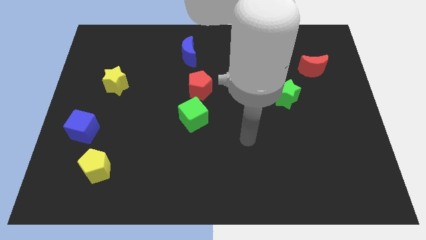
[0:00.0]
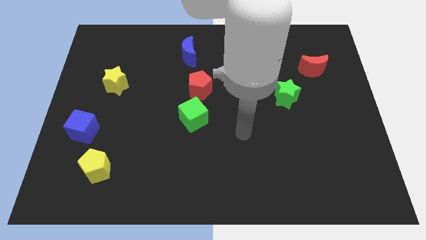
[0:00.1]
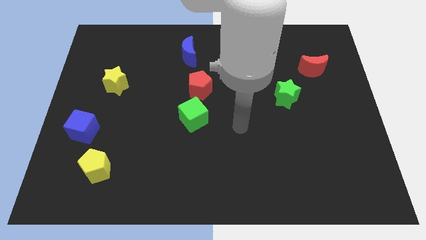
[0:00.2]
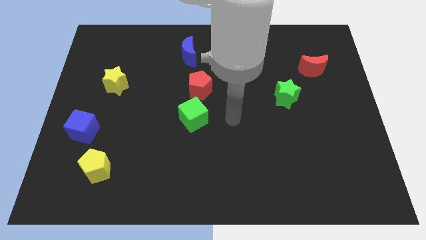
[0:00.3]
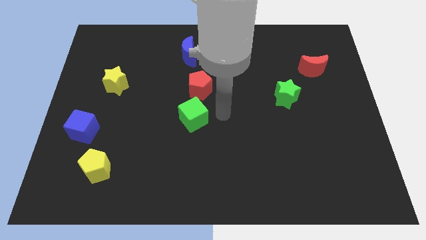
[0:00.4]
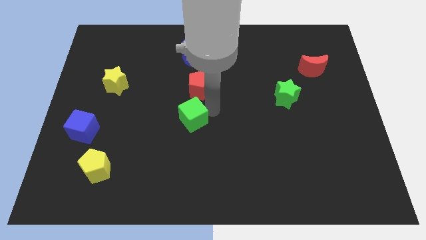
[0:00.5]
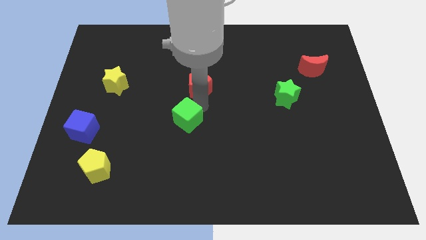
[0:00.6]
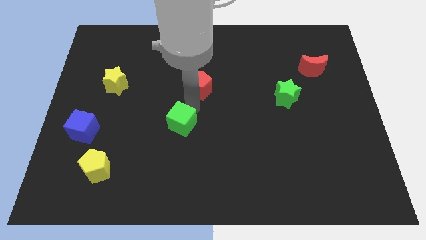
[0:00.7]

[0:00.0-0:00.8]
move the red pentagon away from the green cube

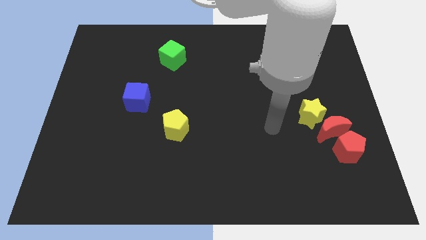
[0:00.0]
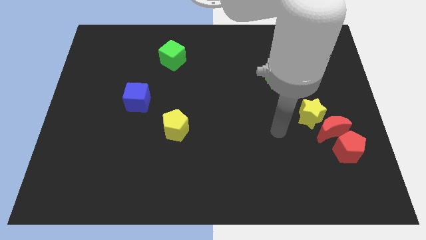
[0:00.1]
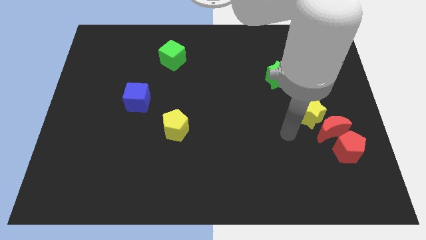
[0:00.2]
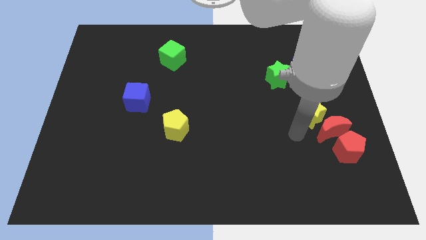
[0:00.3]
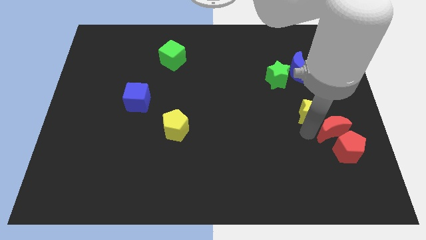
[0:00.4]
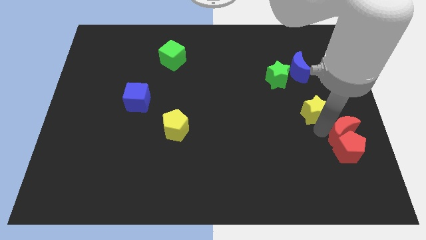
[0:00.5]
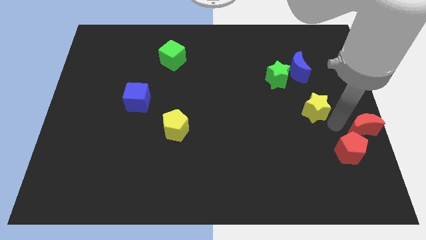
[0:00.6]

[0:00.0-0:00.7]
pull the yellow star apart from the red moon

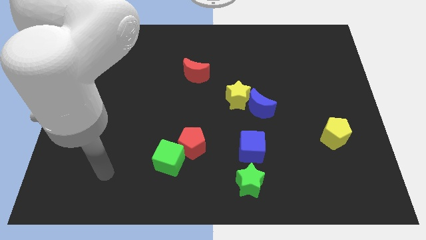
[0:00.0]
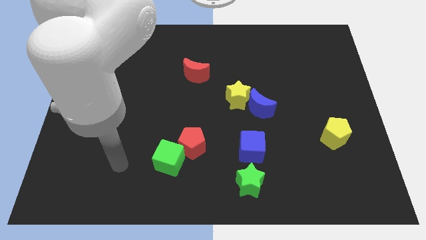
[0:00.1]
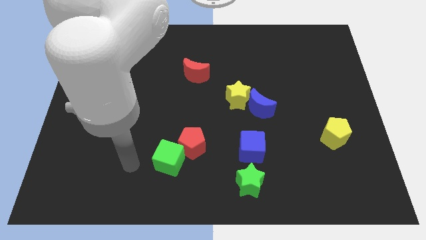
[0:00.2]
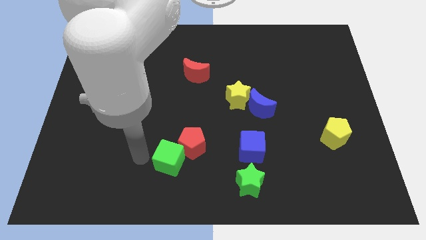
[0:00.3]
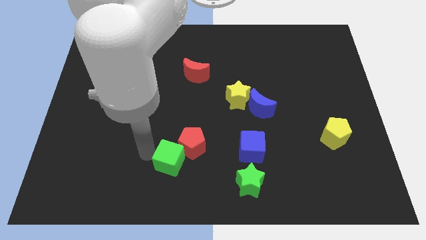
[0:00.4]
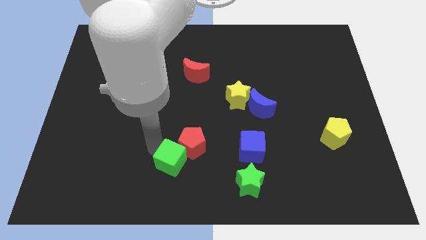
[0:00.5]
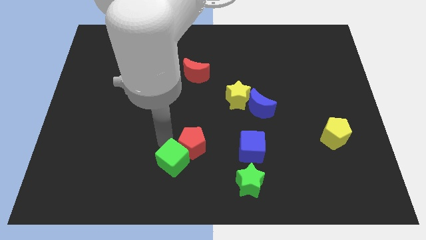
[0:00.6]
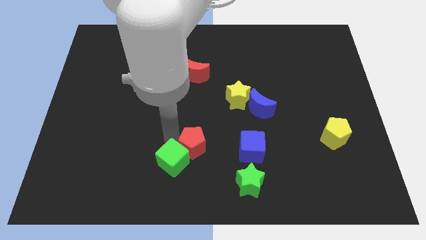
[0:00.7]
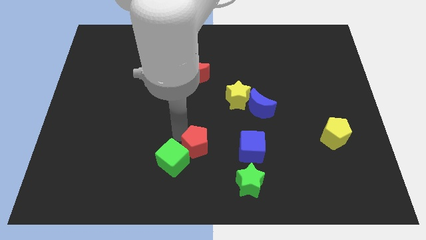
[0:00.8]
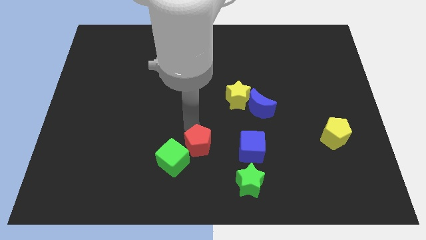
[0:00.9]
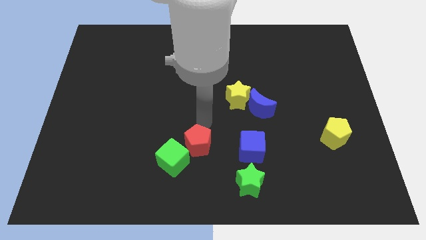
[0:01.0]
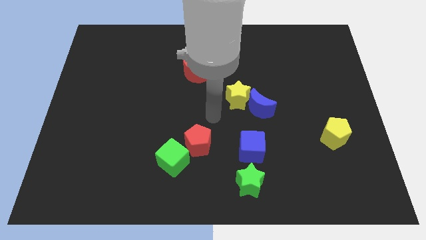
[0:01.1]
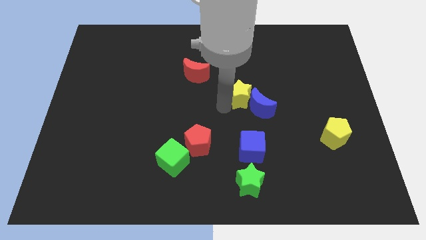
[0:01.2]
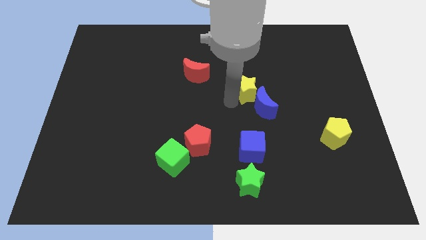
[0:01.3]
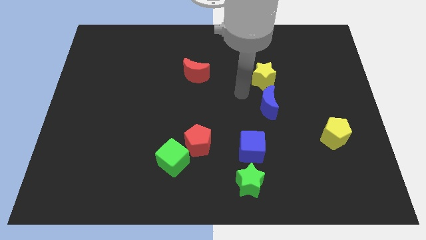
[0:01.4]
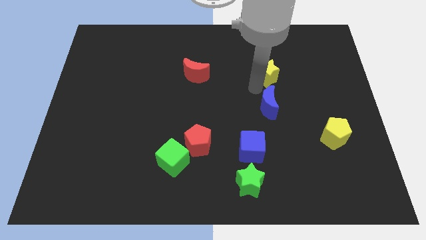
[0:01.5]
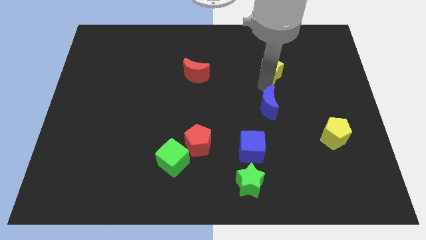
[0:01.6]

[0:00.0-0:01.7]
pull the blue moon apart from the yellow star

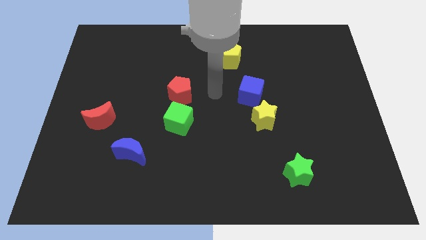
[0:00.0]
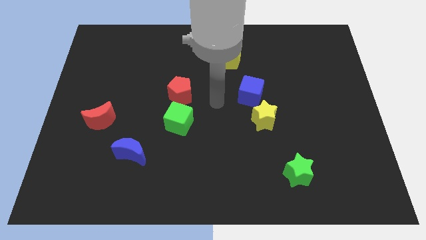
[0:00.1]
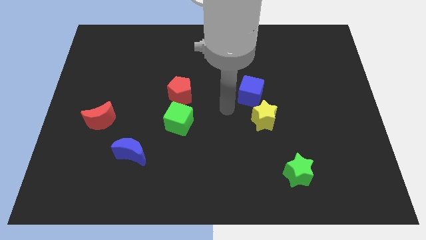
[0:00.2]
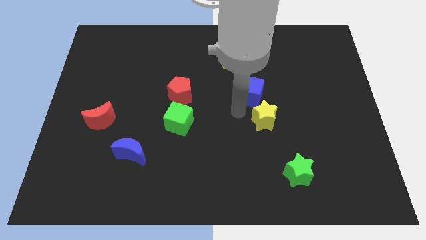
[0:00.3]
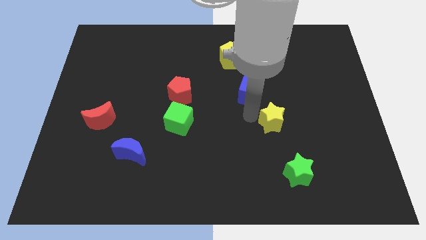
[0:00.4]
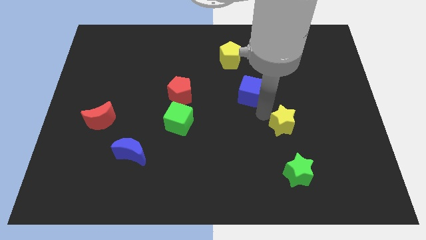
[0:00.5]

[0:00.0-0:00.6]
move the blue cube away from the yellow star

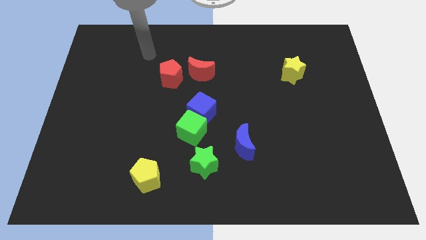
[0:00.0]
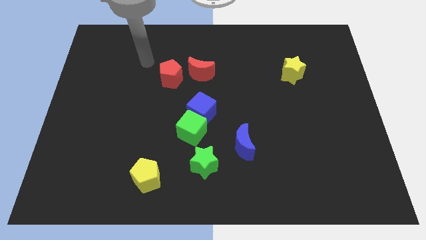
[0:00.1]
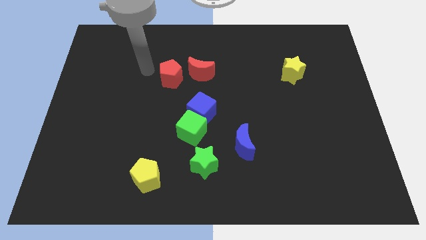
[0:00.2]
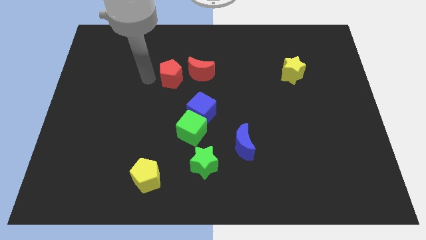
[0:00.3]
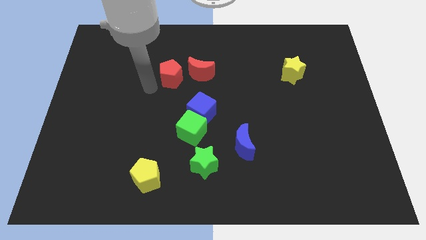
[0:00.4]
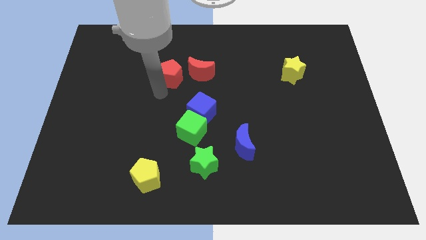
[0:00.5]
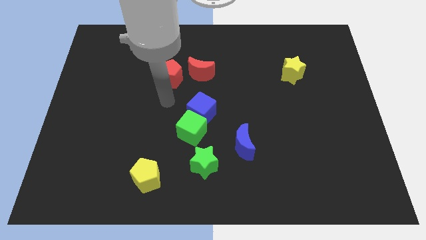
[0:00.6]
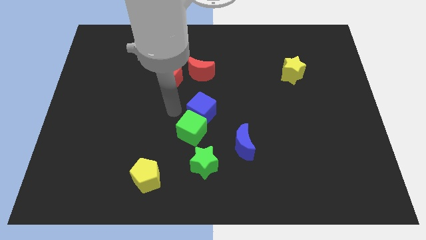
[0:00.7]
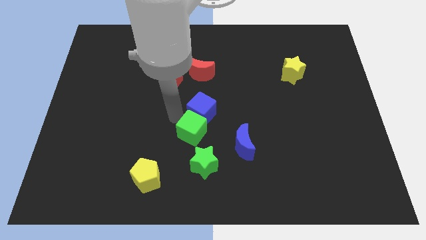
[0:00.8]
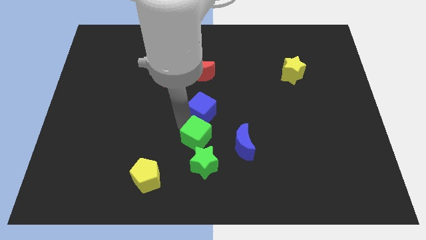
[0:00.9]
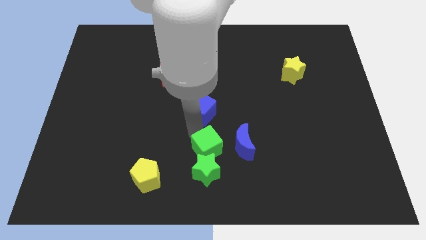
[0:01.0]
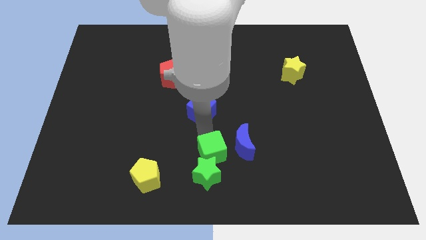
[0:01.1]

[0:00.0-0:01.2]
separate the blue cube from the green cube

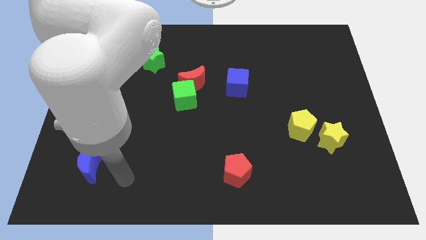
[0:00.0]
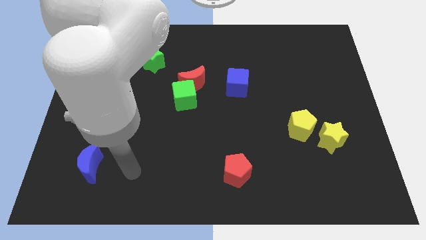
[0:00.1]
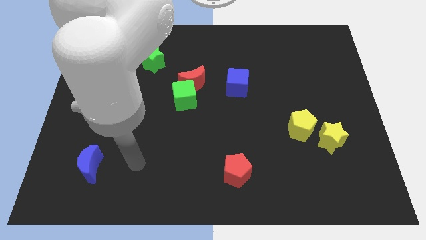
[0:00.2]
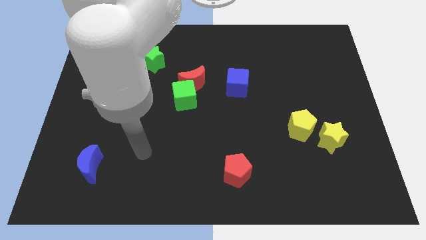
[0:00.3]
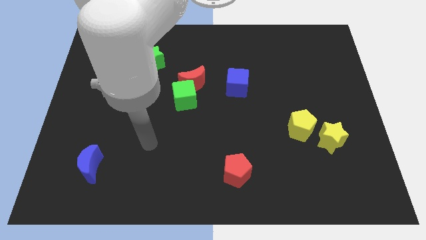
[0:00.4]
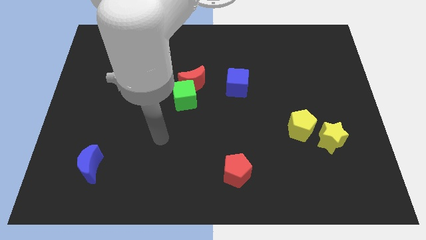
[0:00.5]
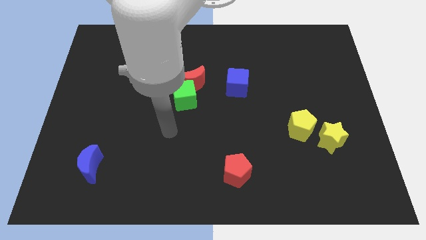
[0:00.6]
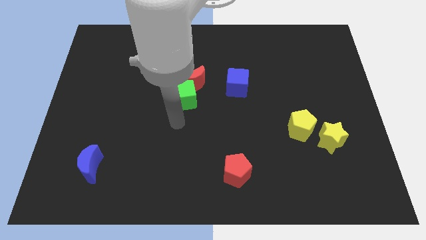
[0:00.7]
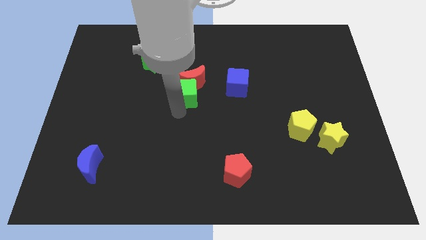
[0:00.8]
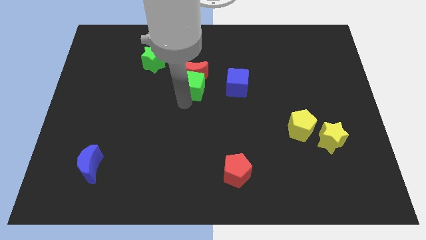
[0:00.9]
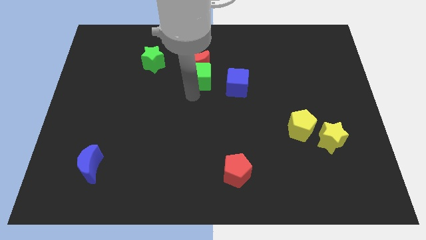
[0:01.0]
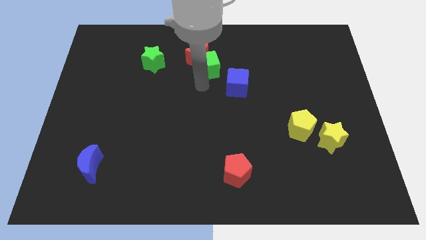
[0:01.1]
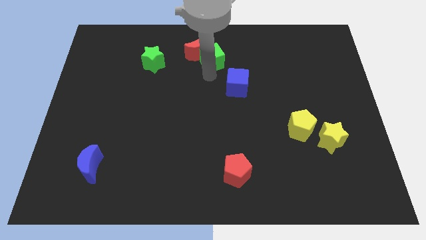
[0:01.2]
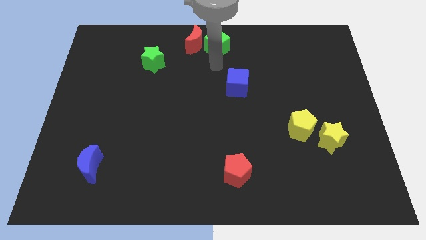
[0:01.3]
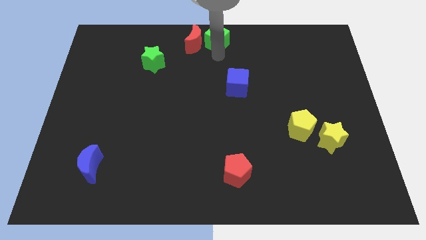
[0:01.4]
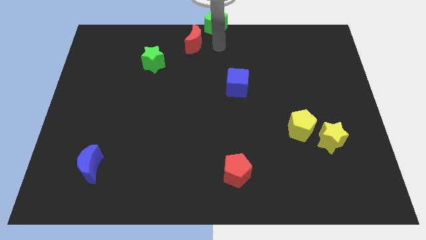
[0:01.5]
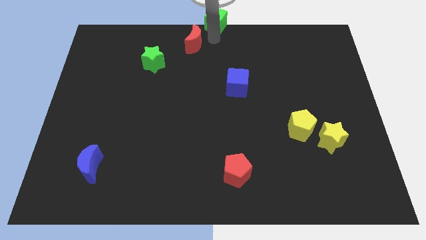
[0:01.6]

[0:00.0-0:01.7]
move the red moon away from the green cube

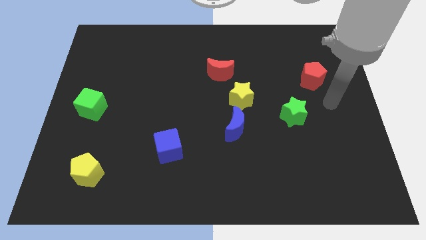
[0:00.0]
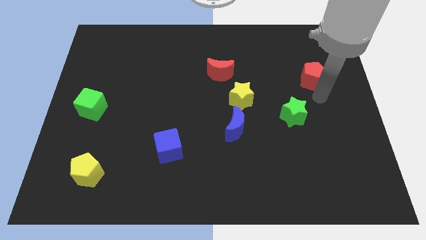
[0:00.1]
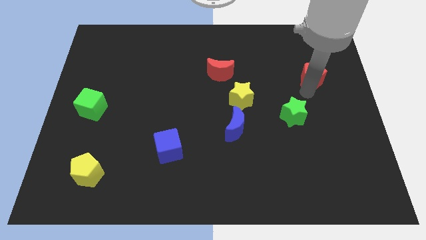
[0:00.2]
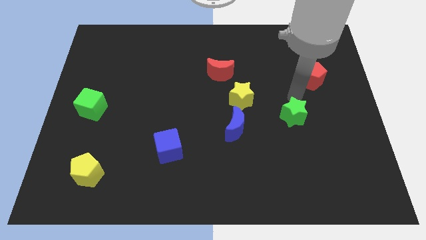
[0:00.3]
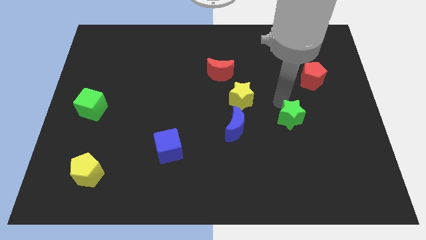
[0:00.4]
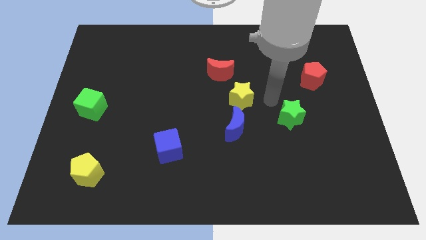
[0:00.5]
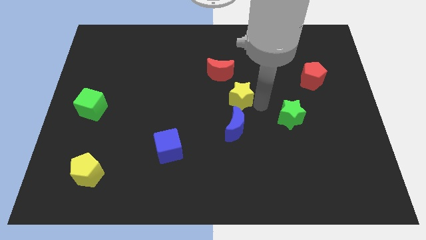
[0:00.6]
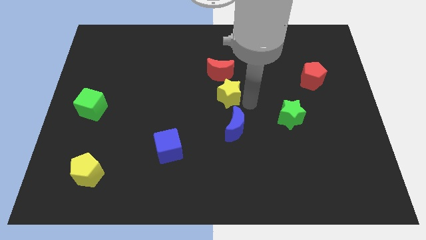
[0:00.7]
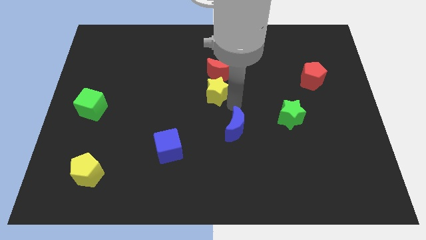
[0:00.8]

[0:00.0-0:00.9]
separate the blue moon from the yellow star

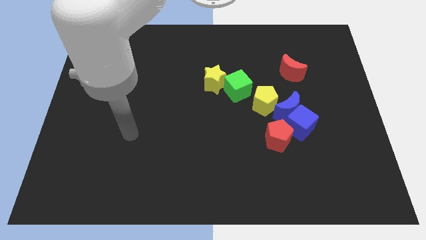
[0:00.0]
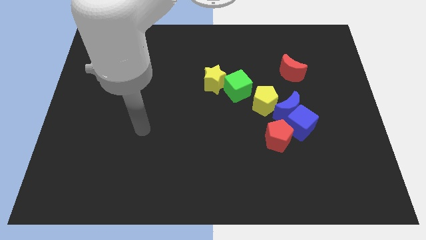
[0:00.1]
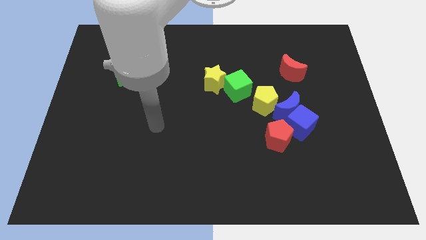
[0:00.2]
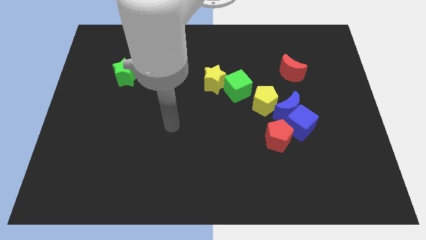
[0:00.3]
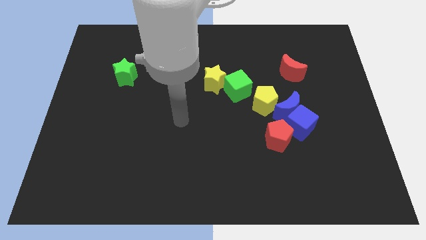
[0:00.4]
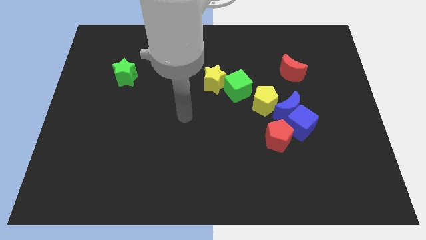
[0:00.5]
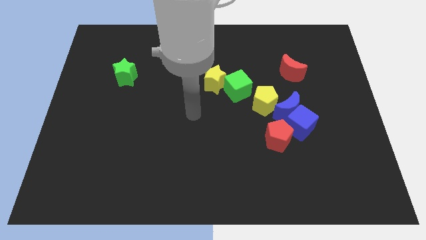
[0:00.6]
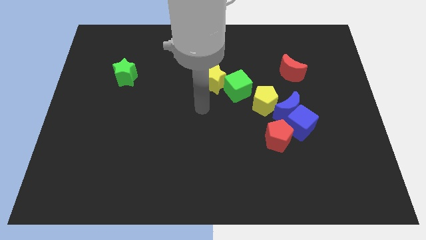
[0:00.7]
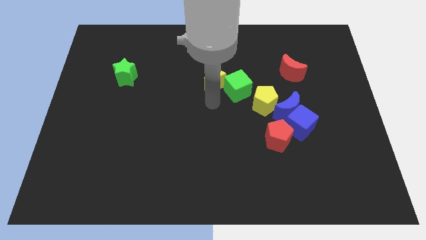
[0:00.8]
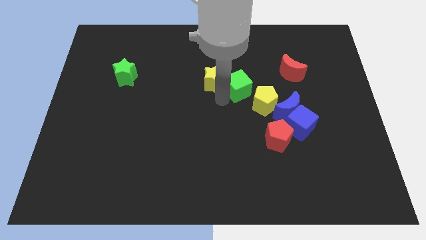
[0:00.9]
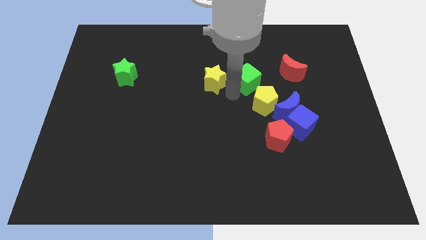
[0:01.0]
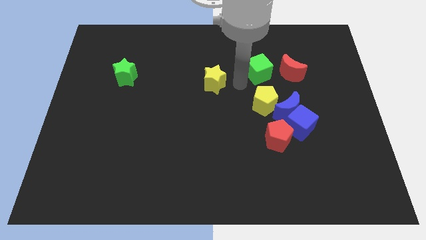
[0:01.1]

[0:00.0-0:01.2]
pull the yellow star apart from the green cube

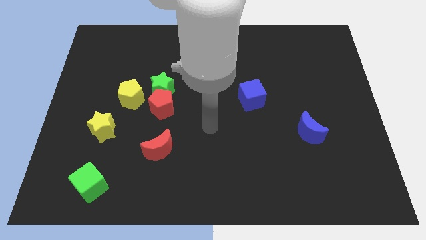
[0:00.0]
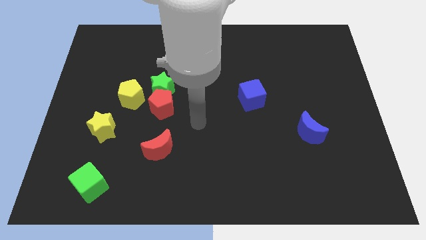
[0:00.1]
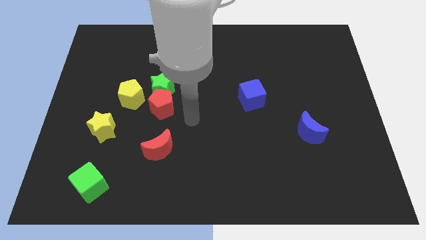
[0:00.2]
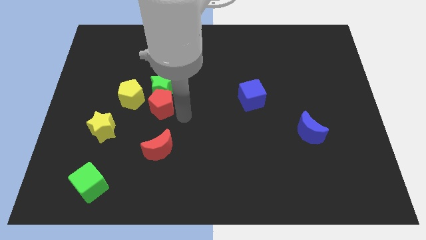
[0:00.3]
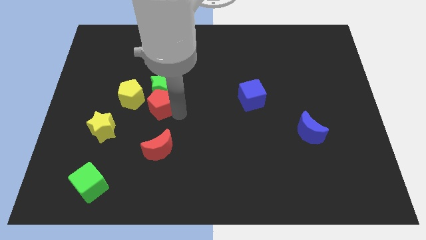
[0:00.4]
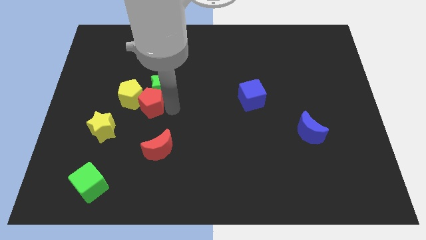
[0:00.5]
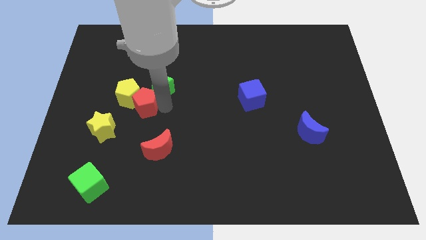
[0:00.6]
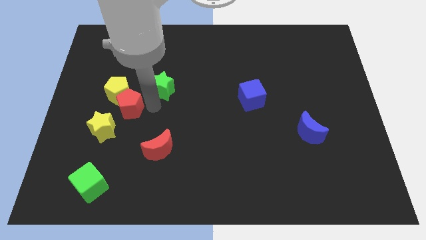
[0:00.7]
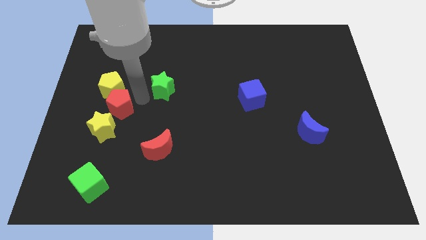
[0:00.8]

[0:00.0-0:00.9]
separate the green star from the red pentagon and yellow pentagon
